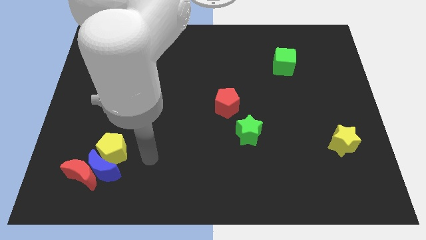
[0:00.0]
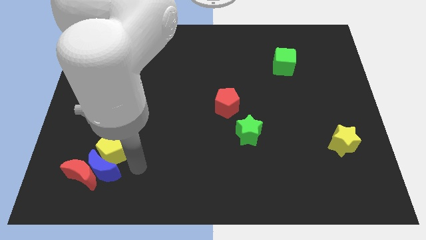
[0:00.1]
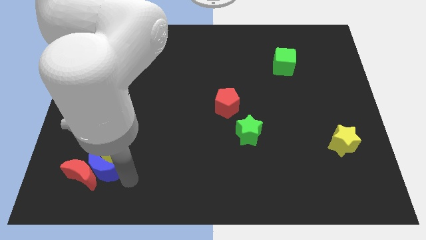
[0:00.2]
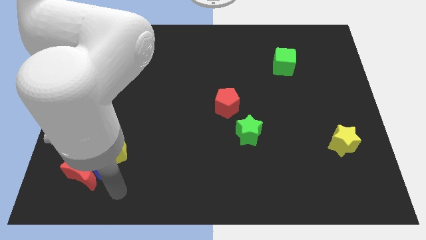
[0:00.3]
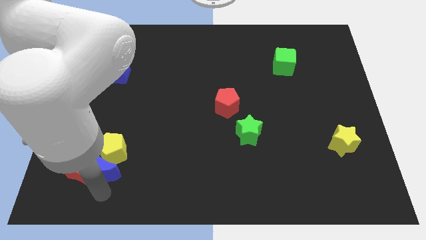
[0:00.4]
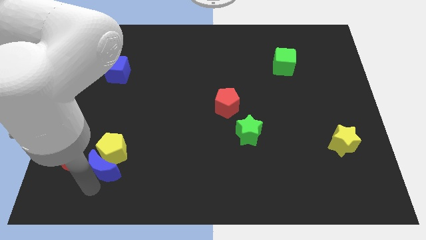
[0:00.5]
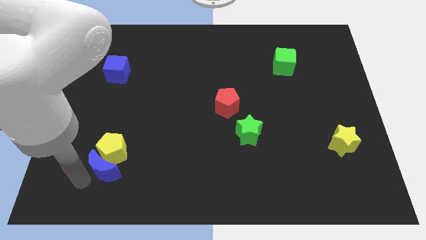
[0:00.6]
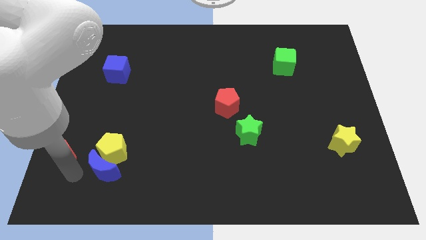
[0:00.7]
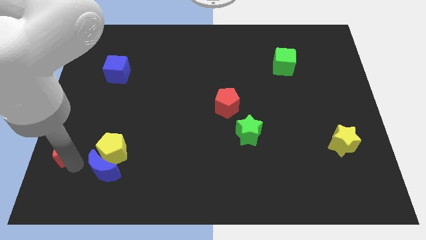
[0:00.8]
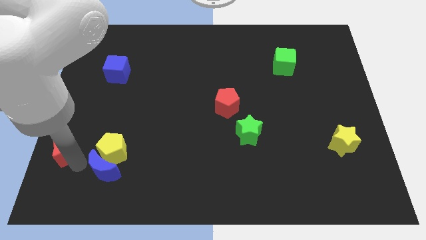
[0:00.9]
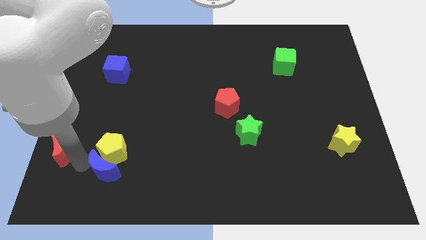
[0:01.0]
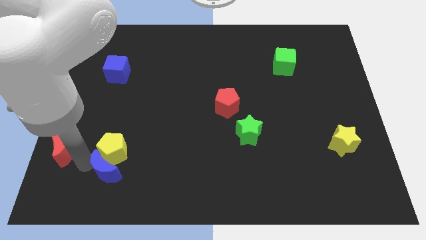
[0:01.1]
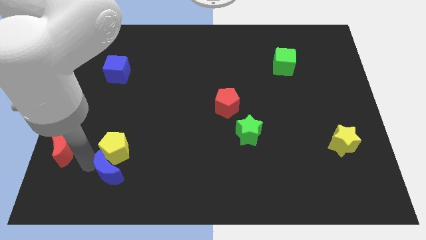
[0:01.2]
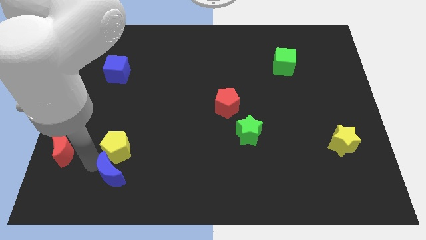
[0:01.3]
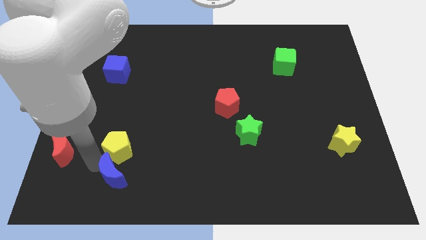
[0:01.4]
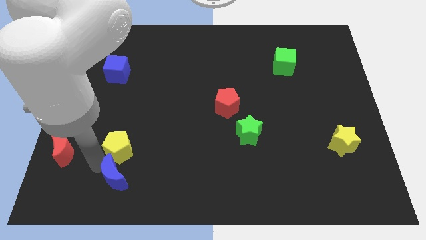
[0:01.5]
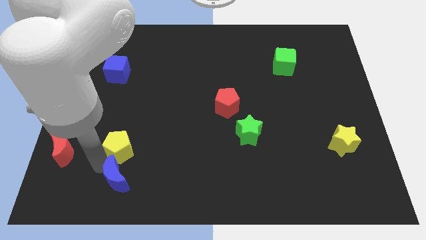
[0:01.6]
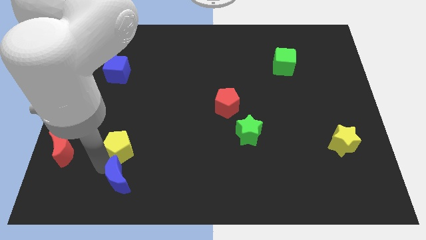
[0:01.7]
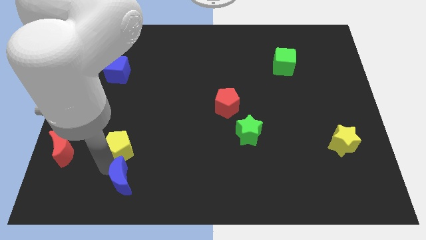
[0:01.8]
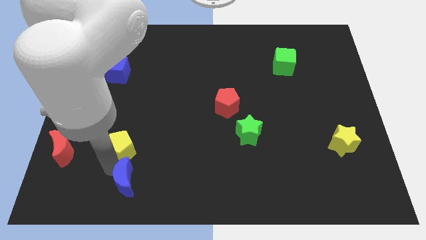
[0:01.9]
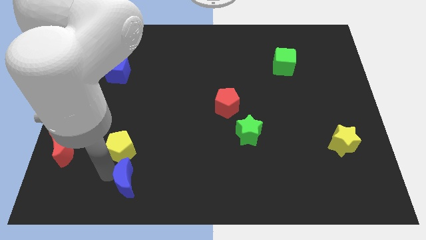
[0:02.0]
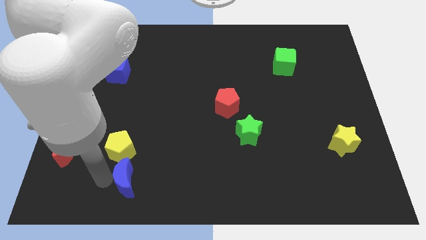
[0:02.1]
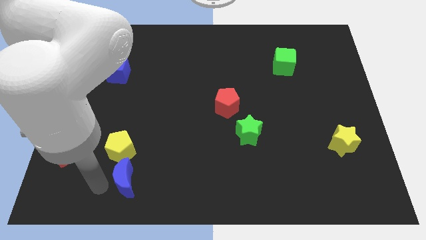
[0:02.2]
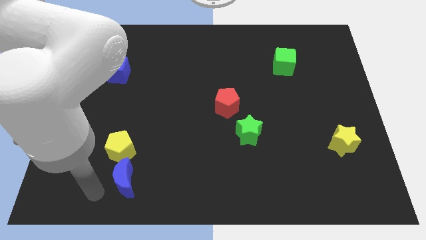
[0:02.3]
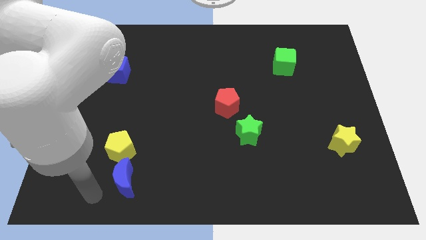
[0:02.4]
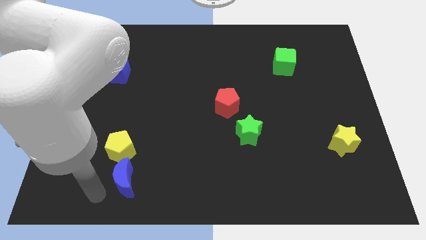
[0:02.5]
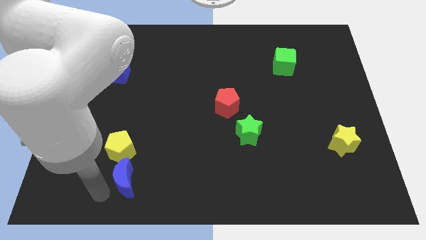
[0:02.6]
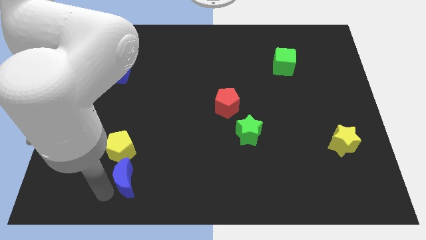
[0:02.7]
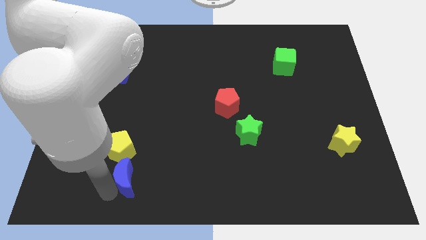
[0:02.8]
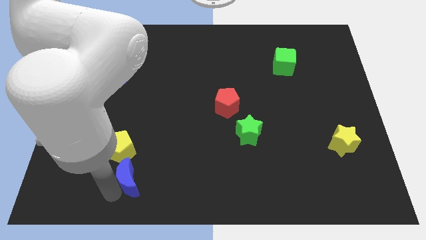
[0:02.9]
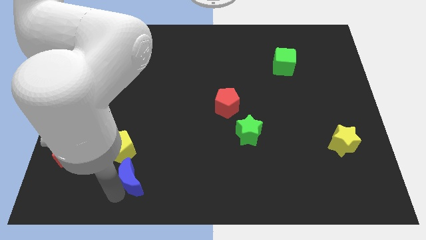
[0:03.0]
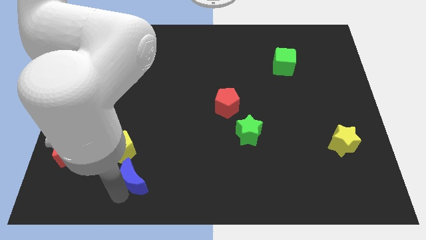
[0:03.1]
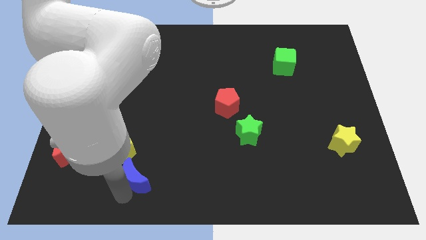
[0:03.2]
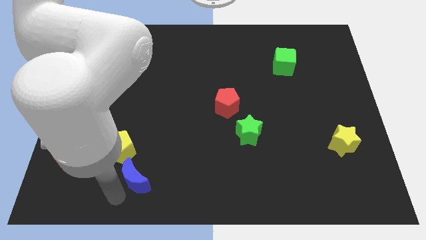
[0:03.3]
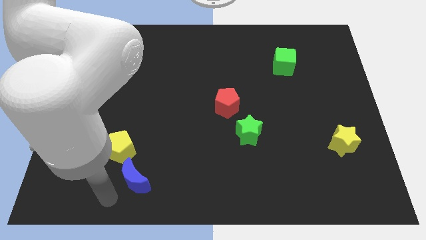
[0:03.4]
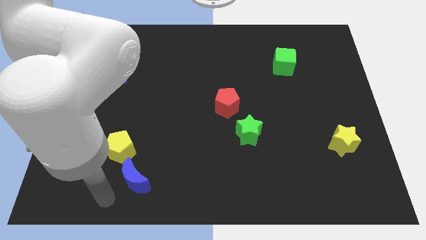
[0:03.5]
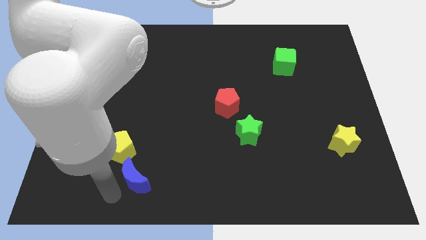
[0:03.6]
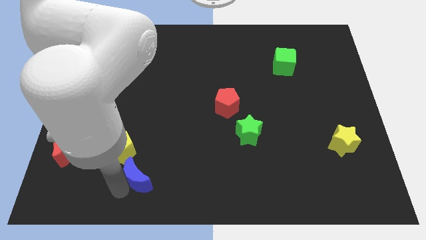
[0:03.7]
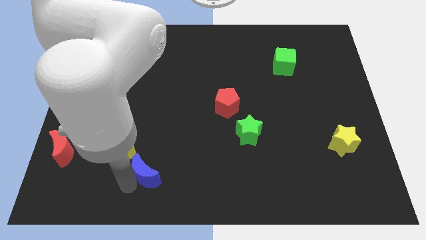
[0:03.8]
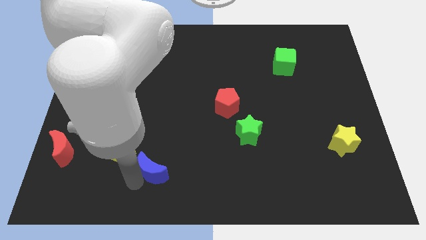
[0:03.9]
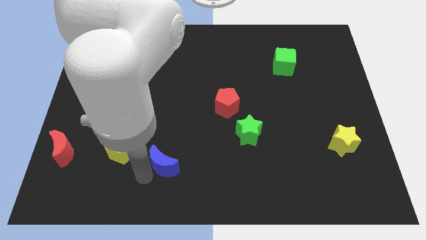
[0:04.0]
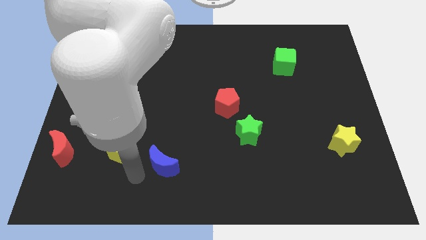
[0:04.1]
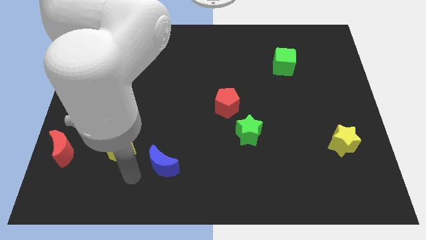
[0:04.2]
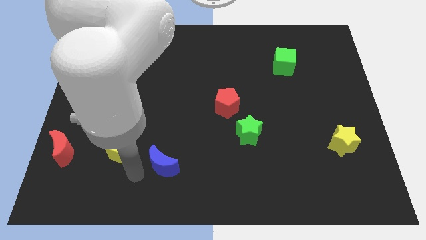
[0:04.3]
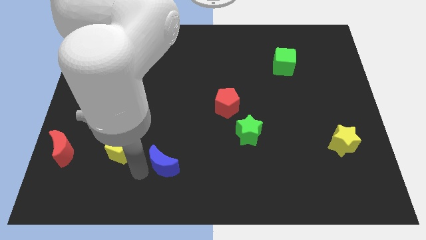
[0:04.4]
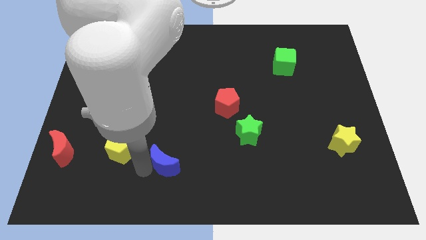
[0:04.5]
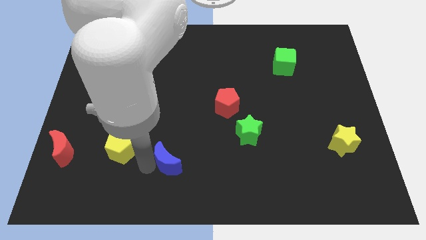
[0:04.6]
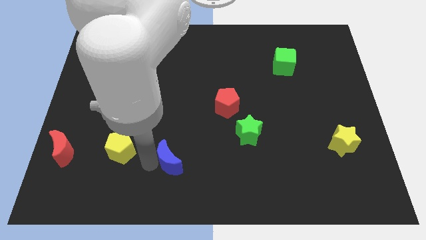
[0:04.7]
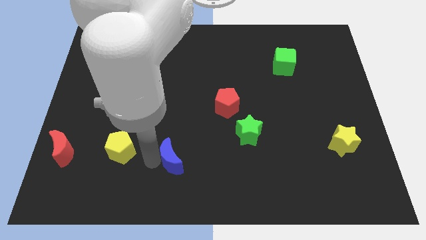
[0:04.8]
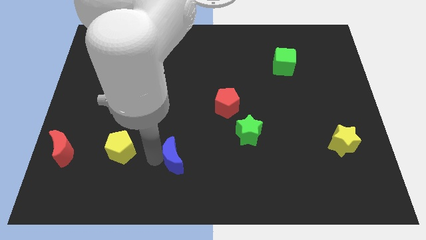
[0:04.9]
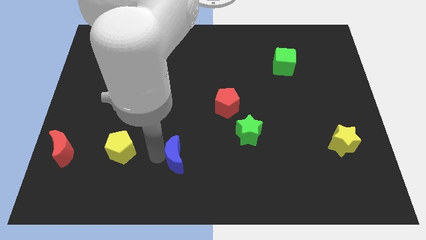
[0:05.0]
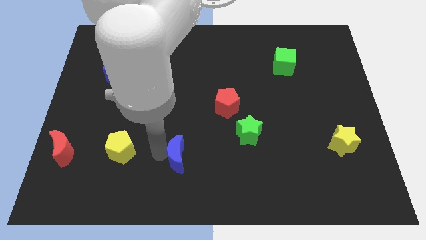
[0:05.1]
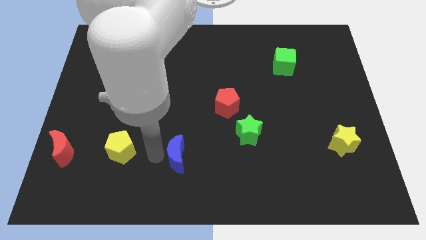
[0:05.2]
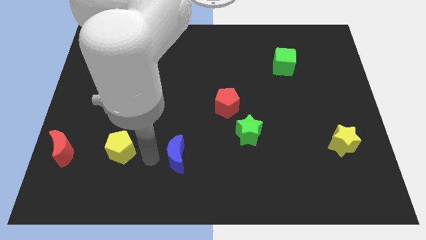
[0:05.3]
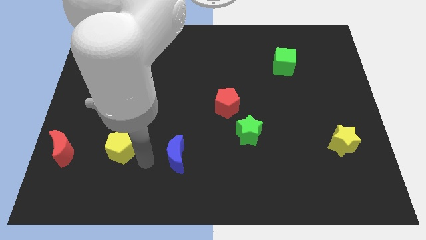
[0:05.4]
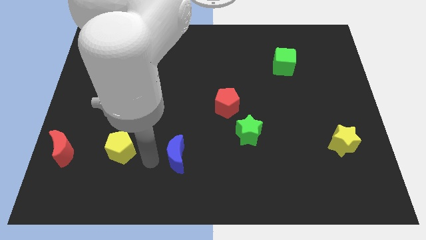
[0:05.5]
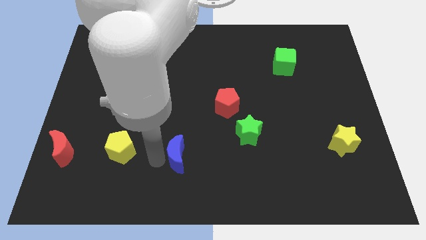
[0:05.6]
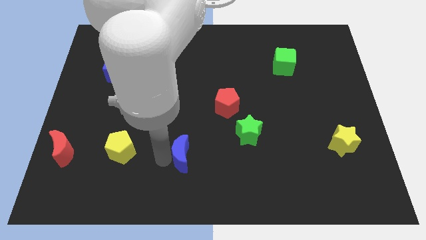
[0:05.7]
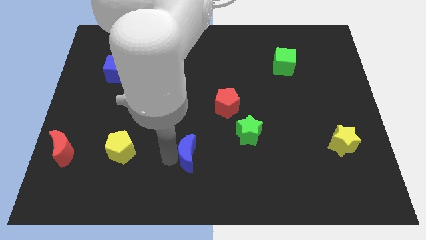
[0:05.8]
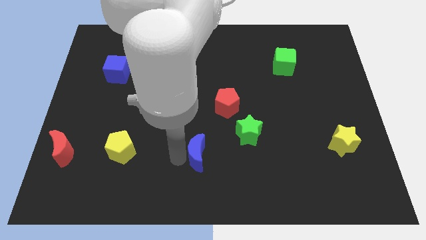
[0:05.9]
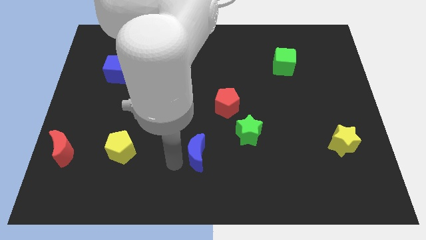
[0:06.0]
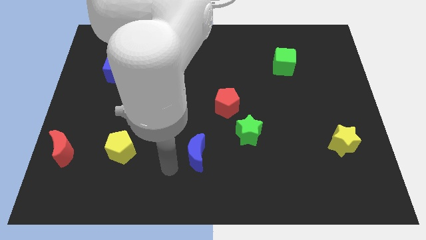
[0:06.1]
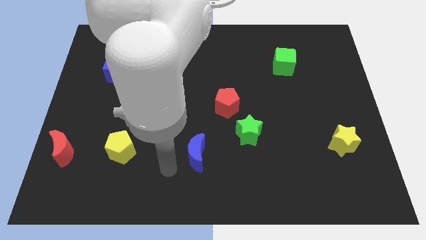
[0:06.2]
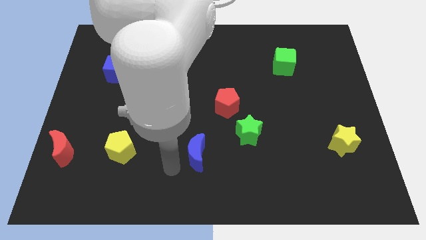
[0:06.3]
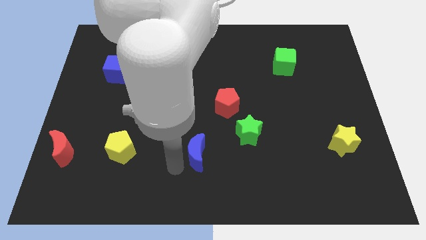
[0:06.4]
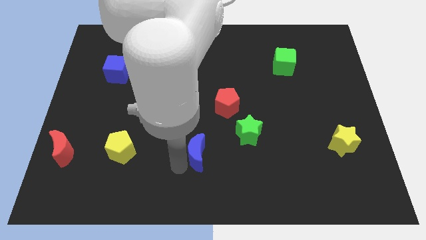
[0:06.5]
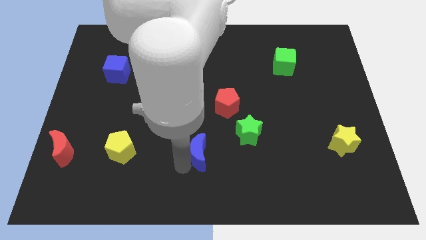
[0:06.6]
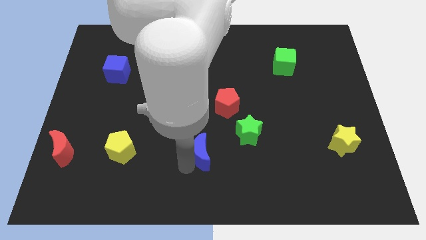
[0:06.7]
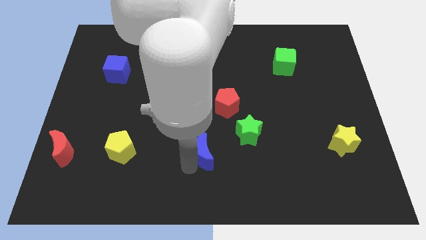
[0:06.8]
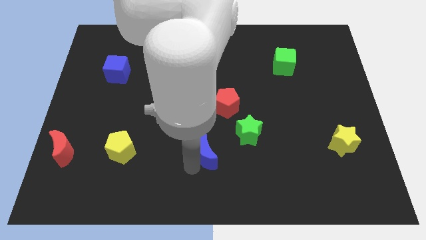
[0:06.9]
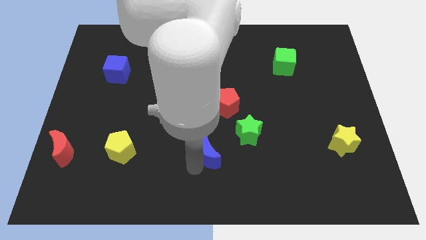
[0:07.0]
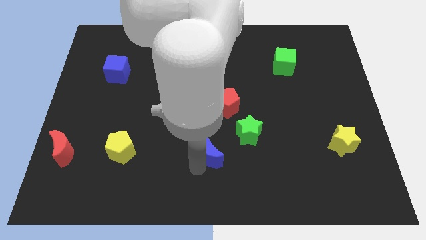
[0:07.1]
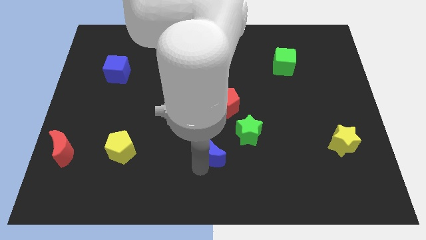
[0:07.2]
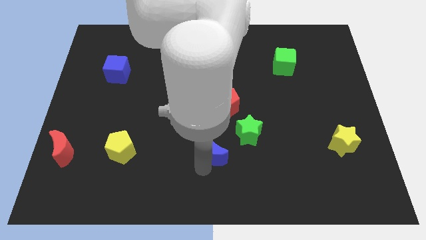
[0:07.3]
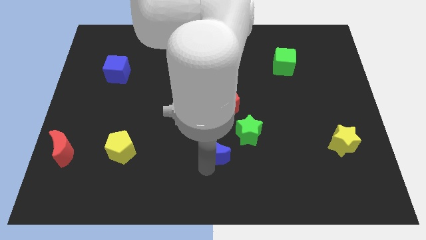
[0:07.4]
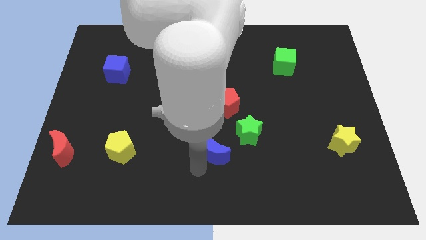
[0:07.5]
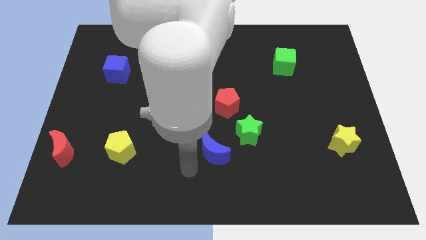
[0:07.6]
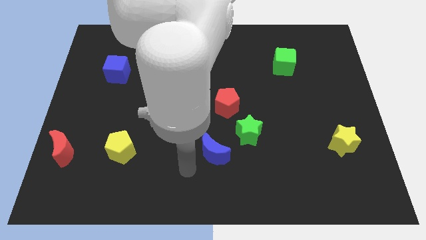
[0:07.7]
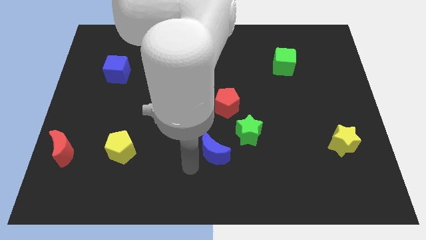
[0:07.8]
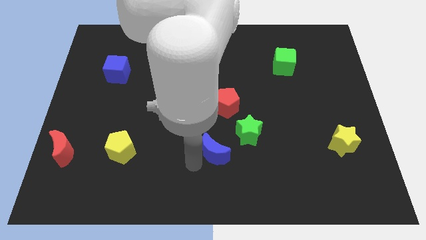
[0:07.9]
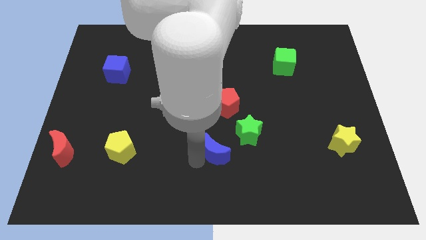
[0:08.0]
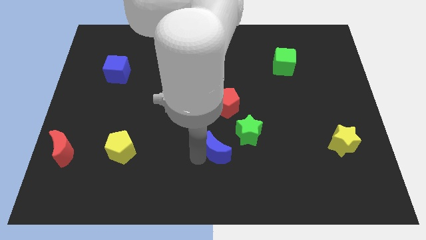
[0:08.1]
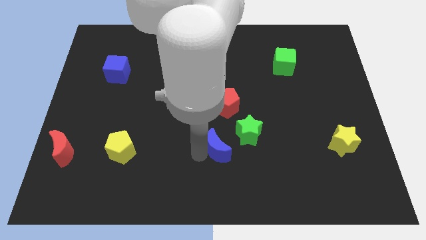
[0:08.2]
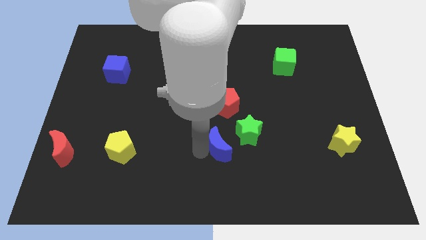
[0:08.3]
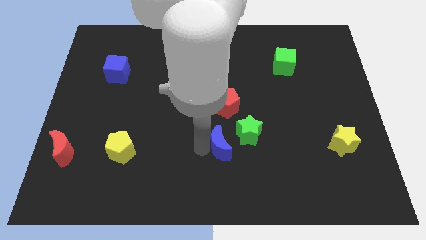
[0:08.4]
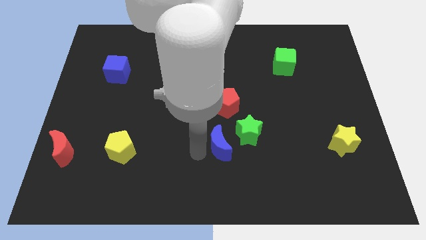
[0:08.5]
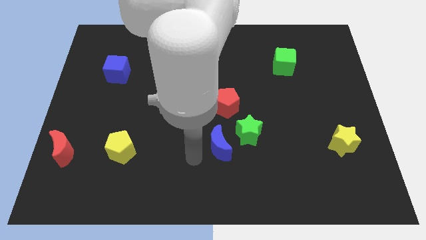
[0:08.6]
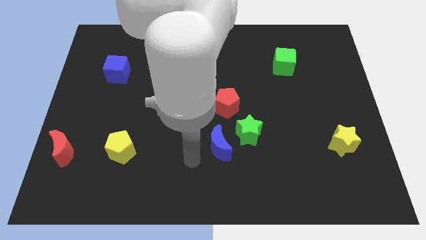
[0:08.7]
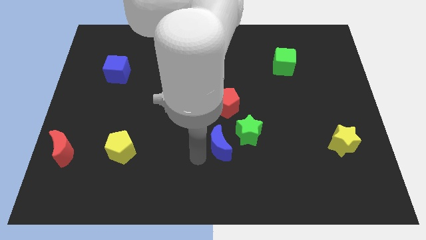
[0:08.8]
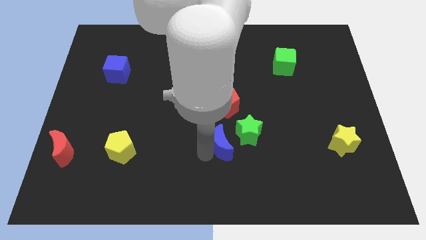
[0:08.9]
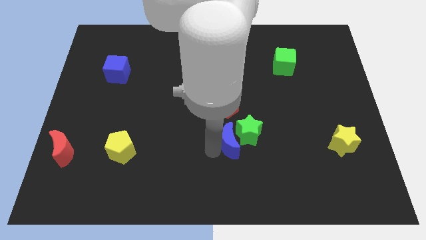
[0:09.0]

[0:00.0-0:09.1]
put the blue moon close to the green star
